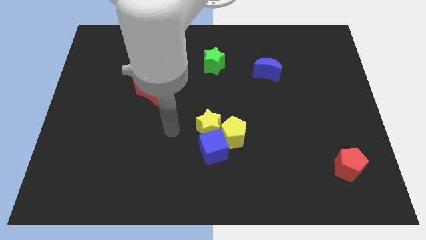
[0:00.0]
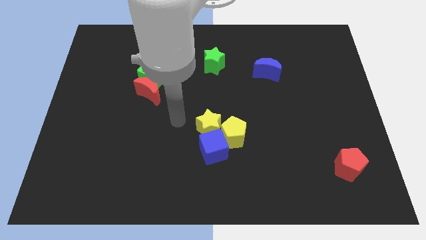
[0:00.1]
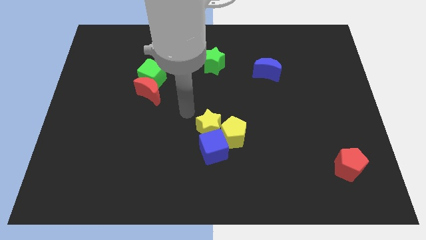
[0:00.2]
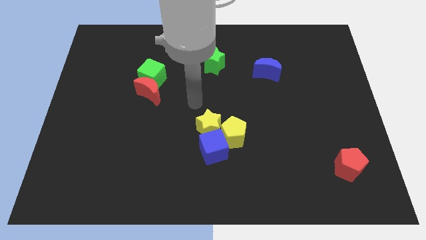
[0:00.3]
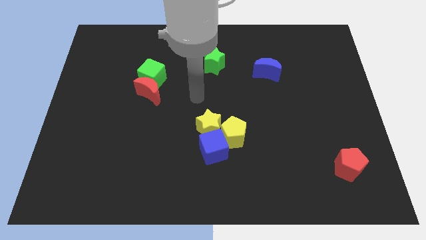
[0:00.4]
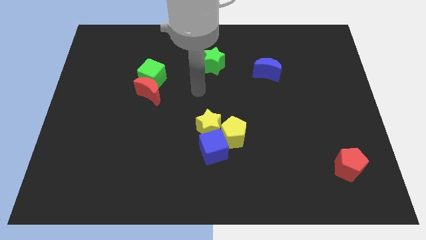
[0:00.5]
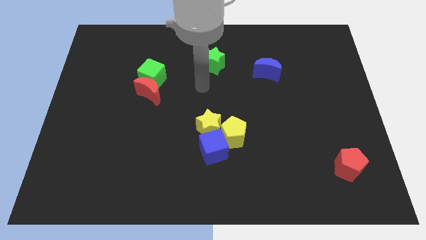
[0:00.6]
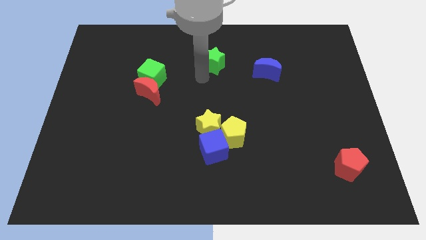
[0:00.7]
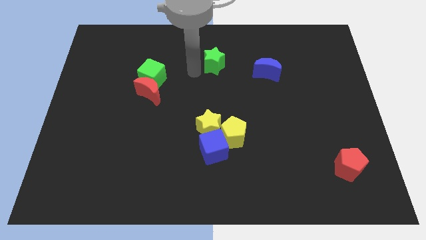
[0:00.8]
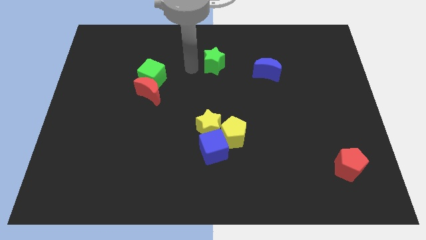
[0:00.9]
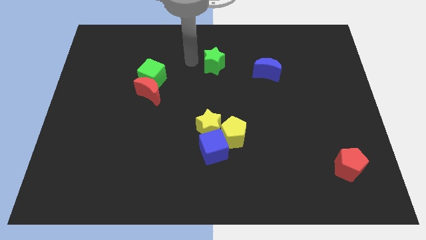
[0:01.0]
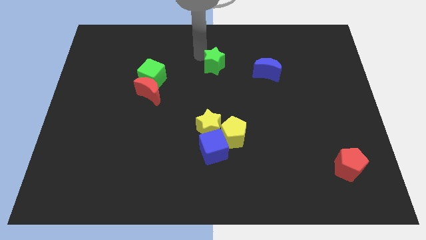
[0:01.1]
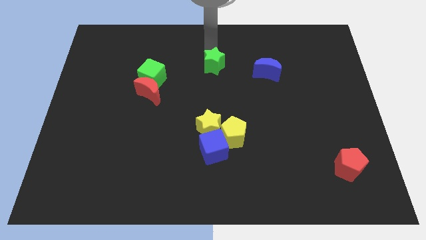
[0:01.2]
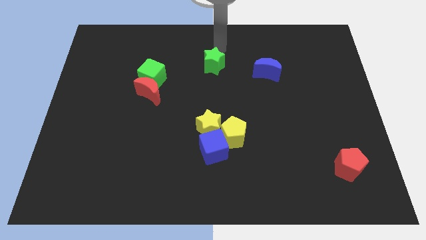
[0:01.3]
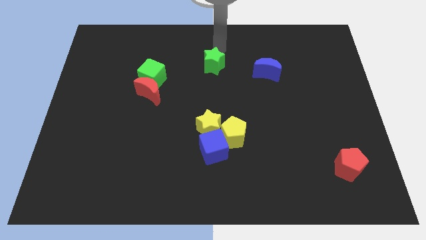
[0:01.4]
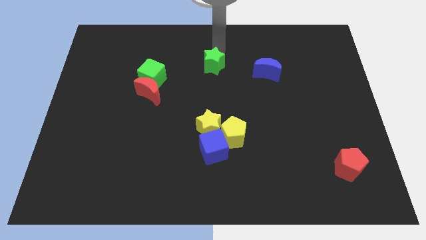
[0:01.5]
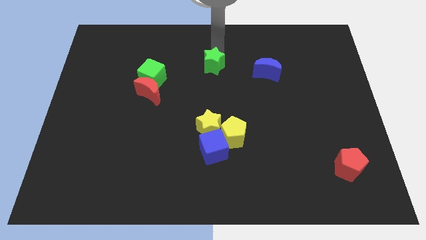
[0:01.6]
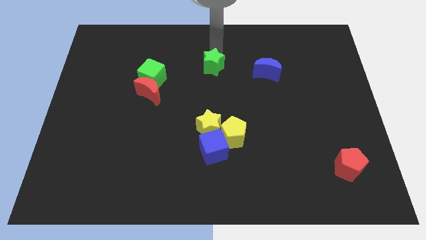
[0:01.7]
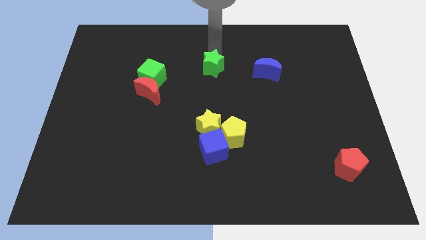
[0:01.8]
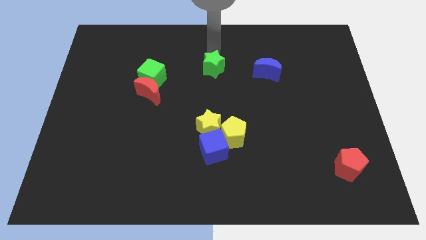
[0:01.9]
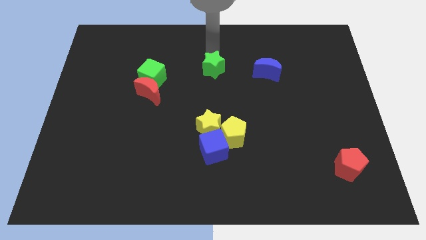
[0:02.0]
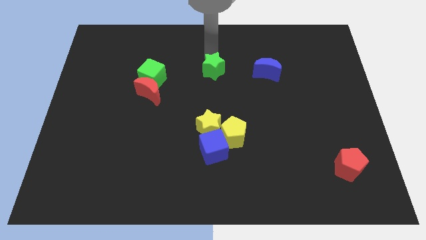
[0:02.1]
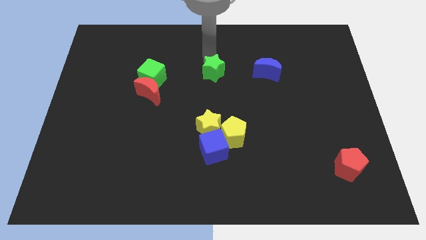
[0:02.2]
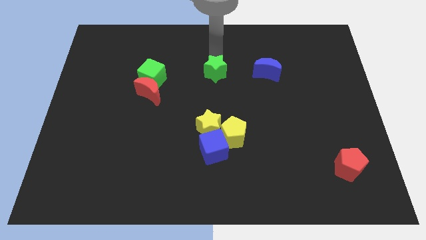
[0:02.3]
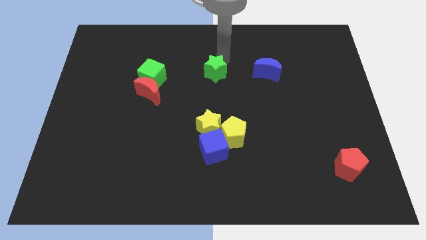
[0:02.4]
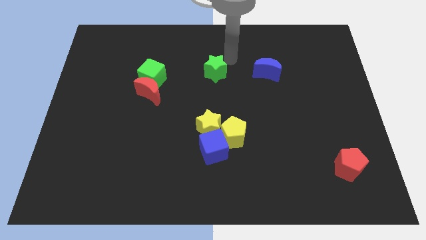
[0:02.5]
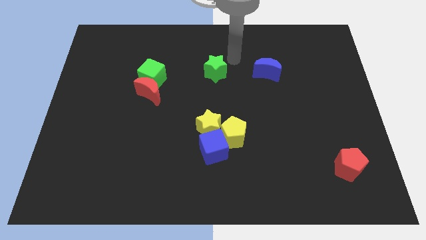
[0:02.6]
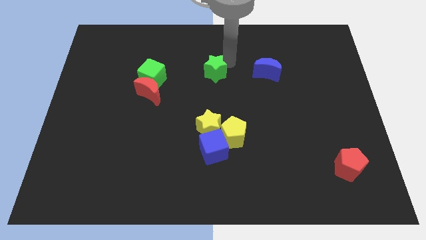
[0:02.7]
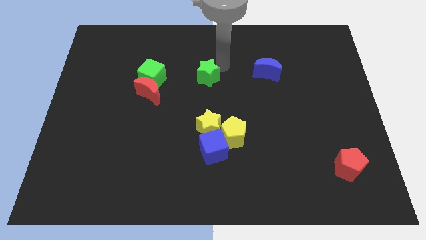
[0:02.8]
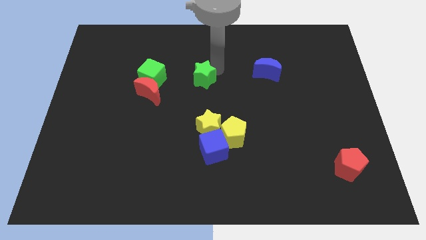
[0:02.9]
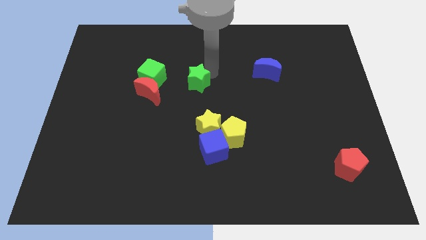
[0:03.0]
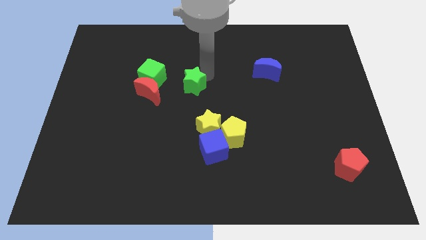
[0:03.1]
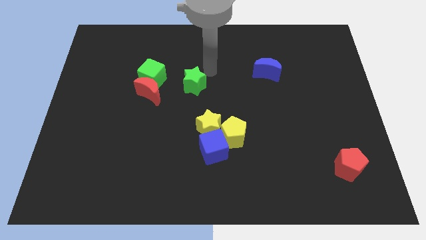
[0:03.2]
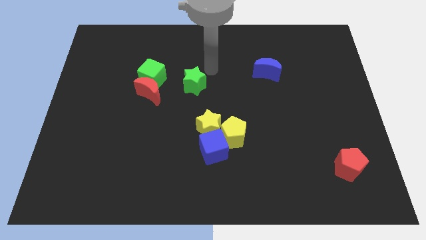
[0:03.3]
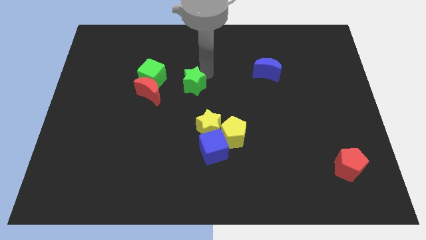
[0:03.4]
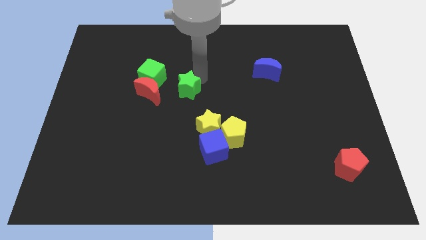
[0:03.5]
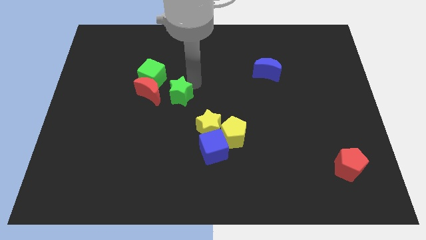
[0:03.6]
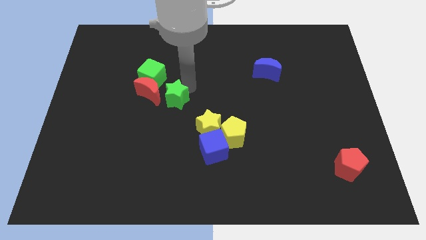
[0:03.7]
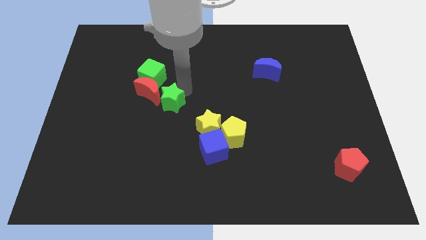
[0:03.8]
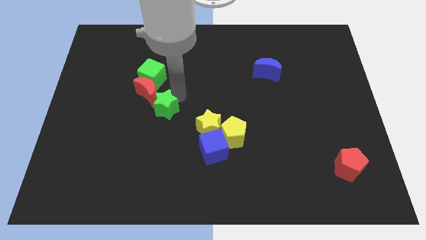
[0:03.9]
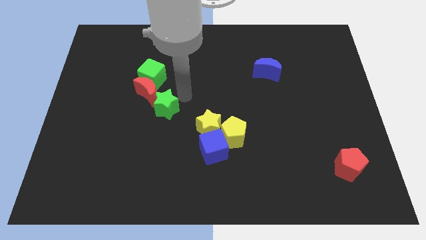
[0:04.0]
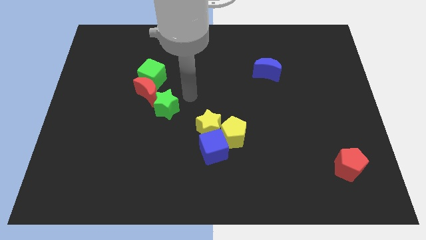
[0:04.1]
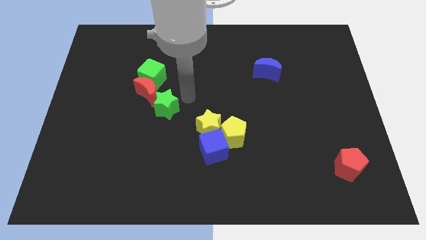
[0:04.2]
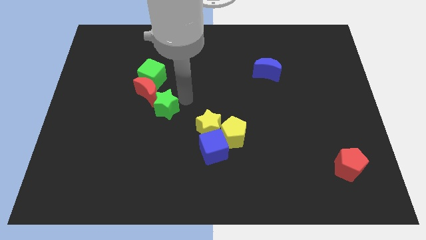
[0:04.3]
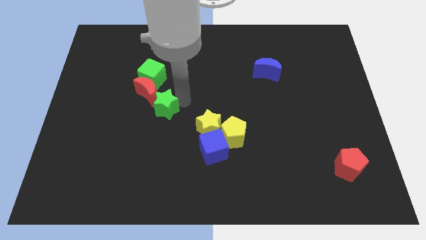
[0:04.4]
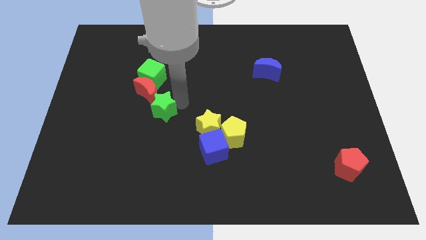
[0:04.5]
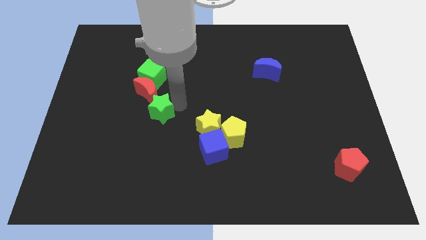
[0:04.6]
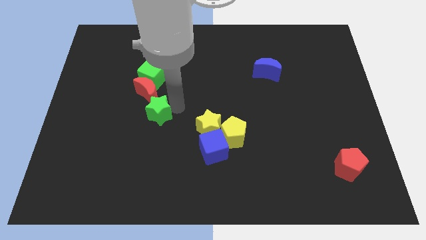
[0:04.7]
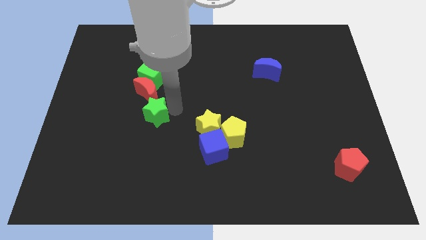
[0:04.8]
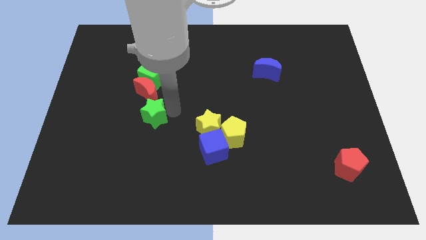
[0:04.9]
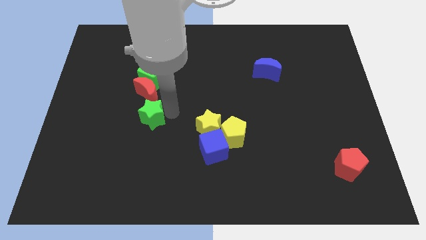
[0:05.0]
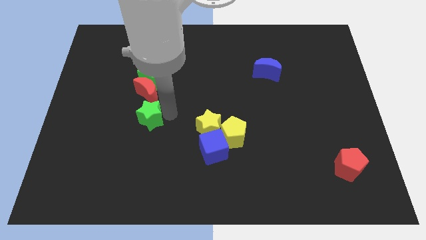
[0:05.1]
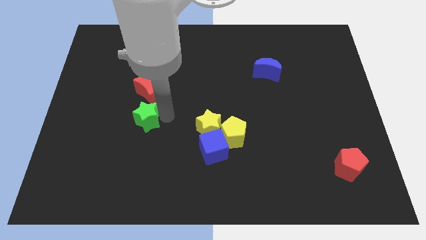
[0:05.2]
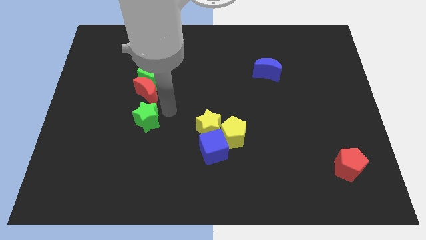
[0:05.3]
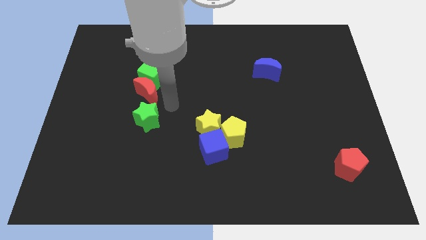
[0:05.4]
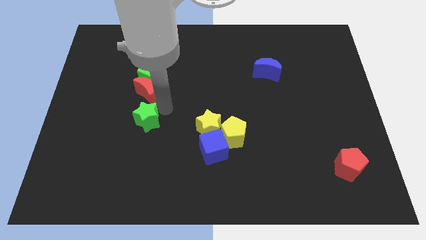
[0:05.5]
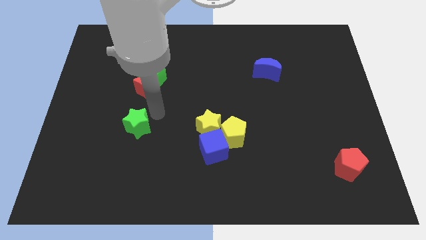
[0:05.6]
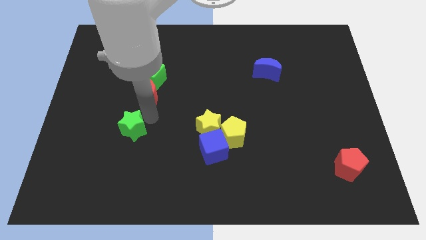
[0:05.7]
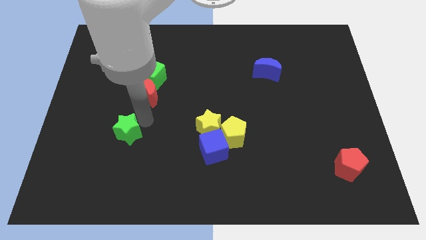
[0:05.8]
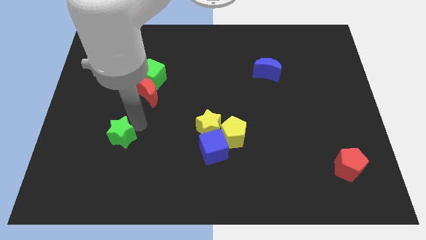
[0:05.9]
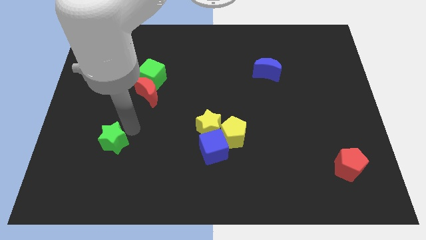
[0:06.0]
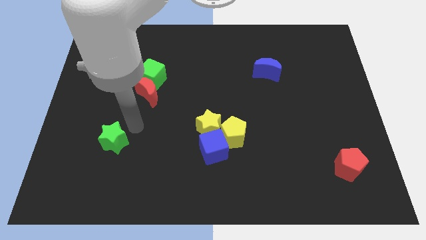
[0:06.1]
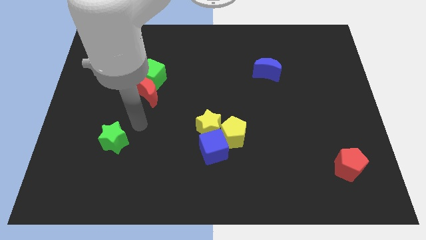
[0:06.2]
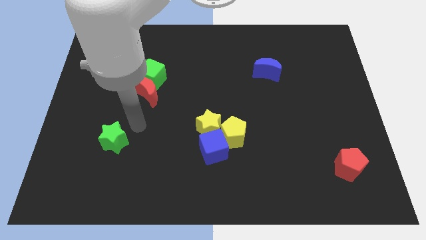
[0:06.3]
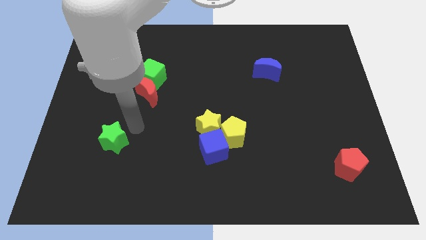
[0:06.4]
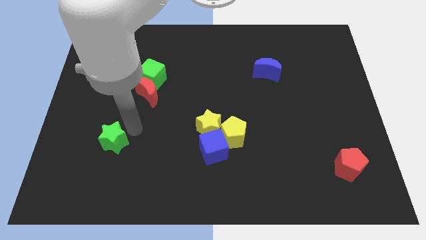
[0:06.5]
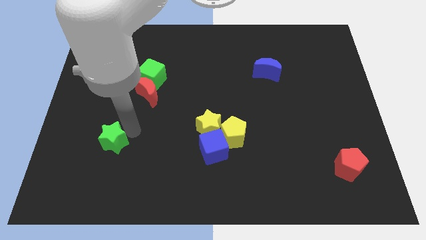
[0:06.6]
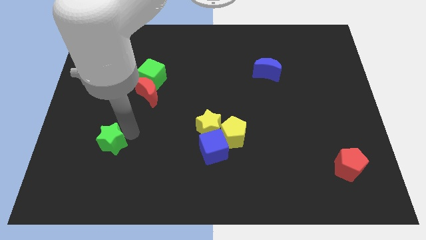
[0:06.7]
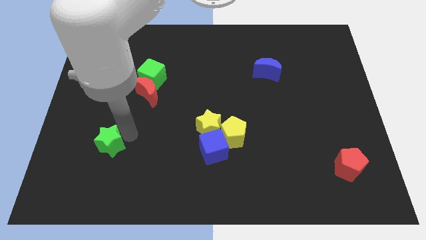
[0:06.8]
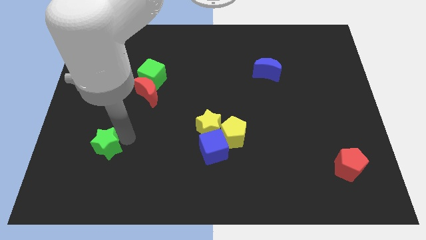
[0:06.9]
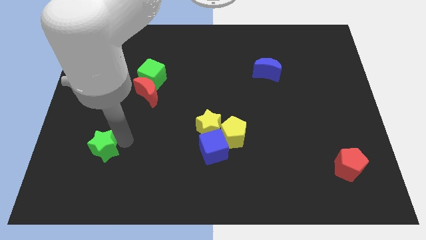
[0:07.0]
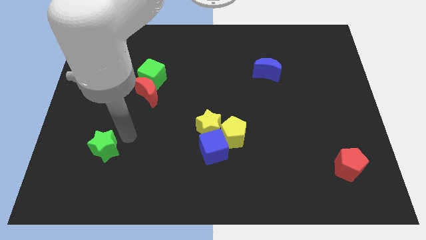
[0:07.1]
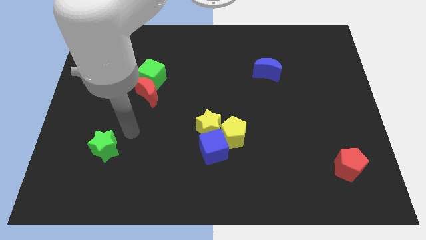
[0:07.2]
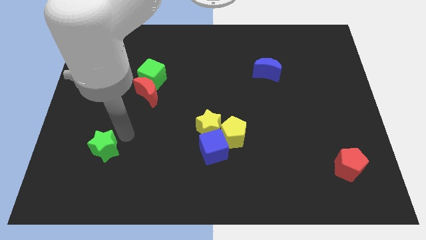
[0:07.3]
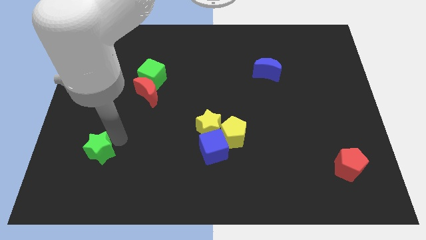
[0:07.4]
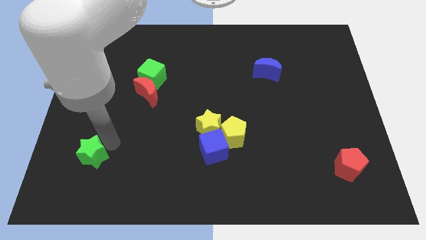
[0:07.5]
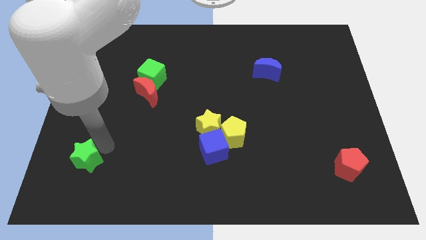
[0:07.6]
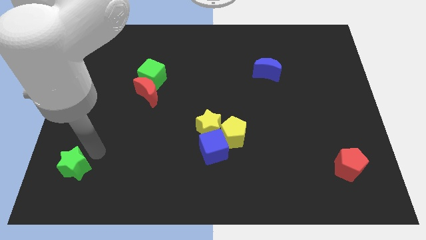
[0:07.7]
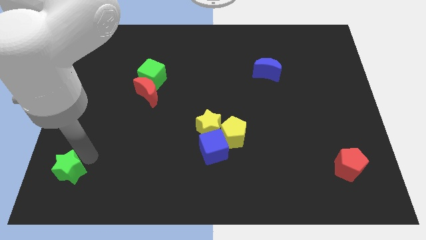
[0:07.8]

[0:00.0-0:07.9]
put the green star to the bottom left
